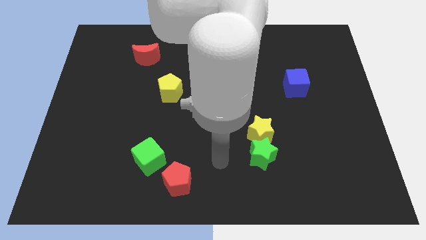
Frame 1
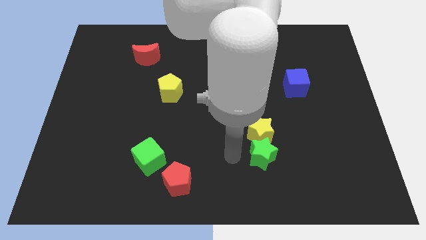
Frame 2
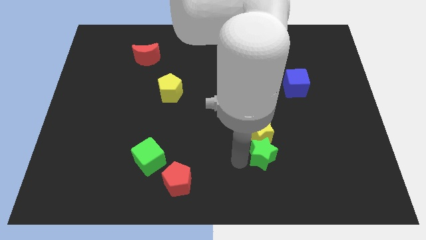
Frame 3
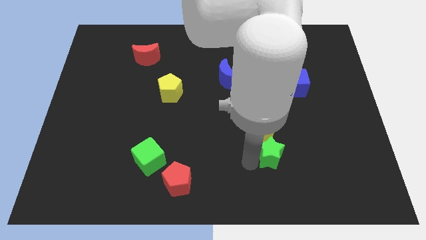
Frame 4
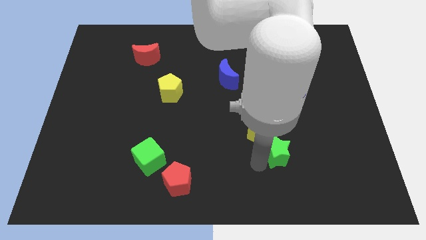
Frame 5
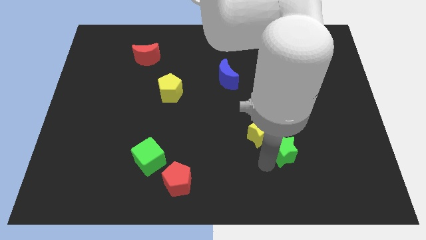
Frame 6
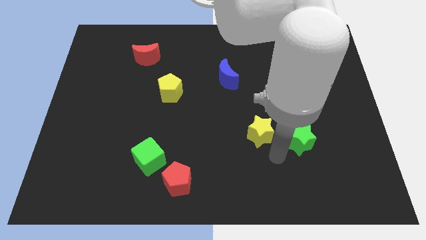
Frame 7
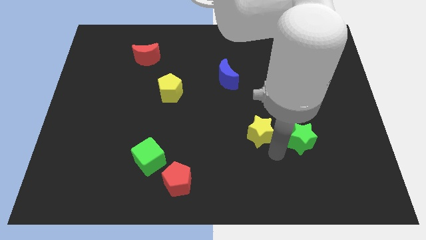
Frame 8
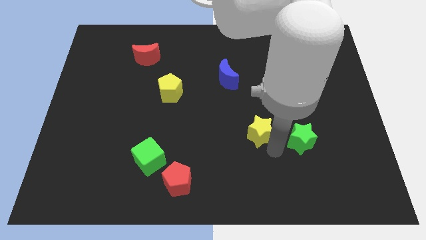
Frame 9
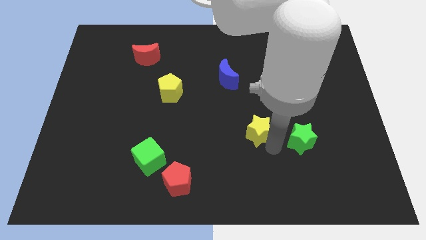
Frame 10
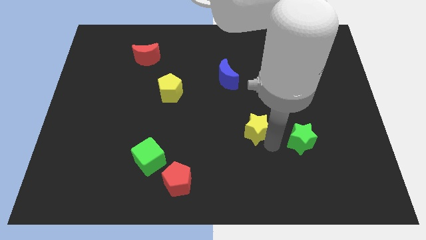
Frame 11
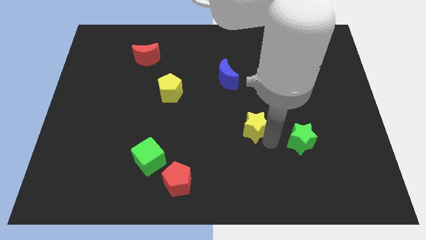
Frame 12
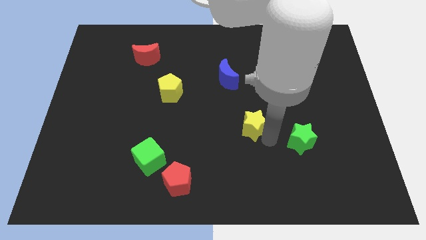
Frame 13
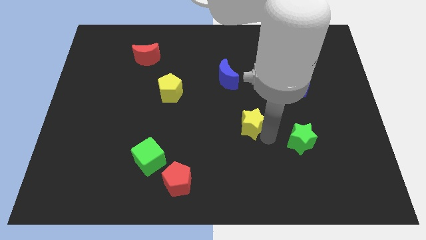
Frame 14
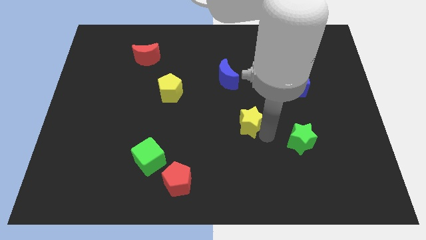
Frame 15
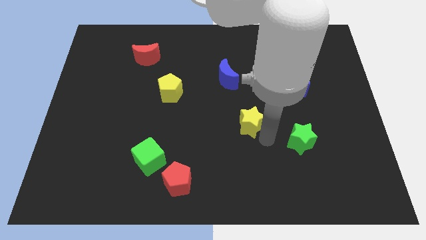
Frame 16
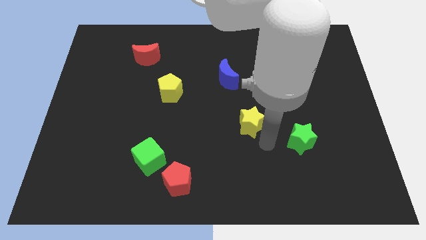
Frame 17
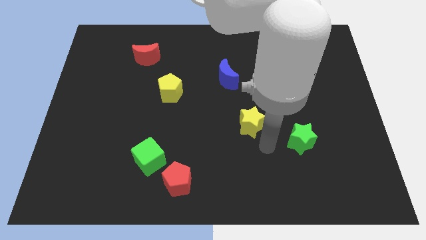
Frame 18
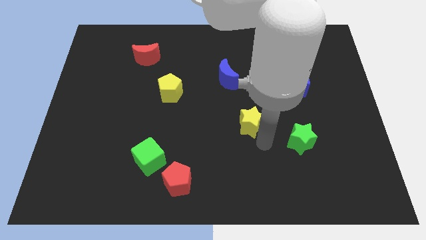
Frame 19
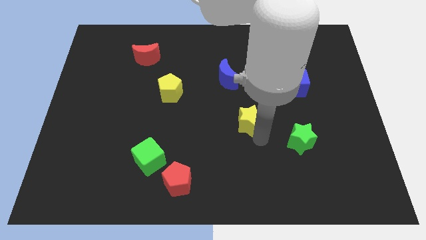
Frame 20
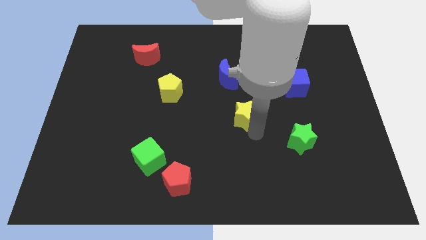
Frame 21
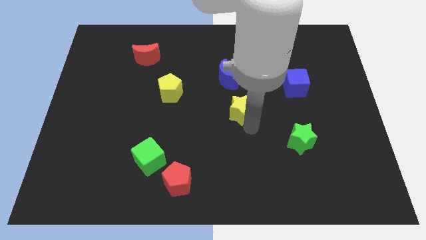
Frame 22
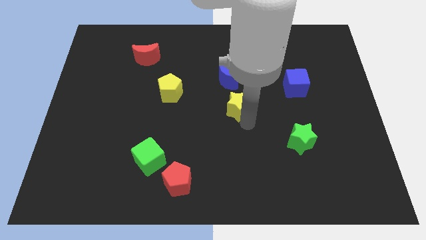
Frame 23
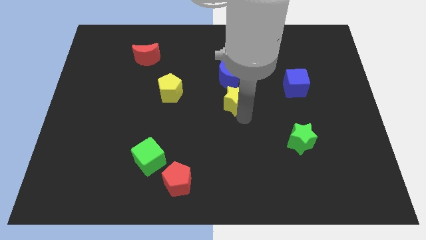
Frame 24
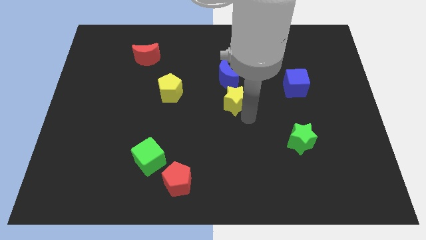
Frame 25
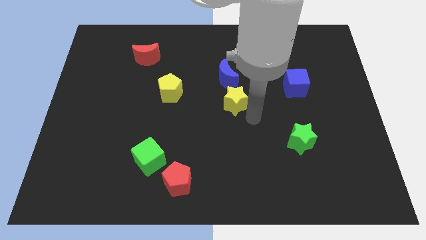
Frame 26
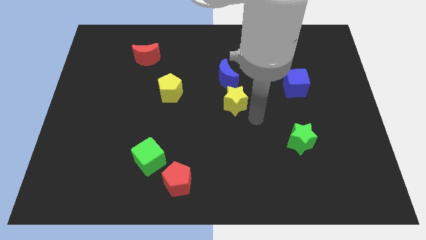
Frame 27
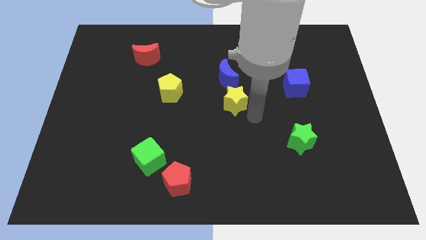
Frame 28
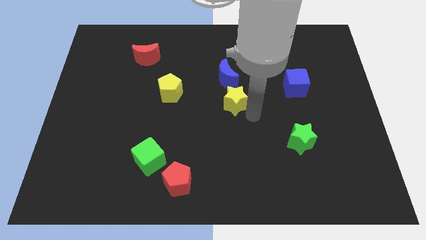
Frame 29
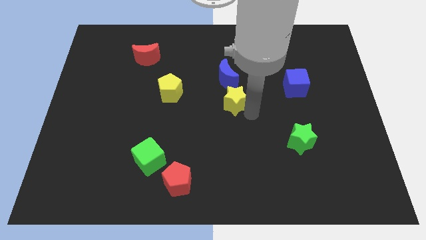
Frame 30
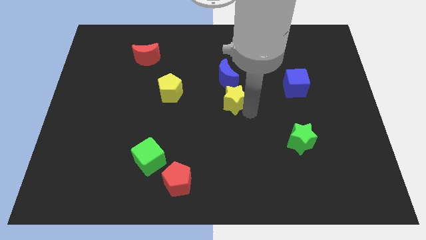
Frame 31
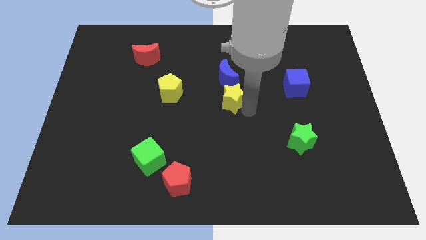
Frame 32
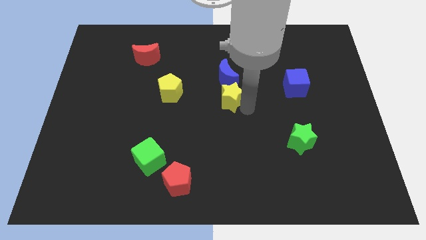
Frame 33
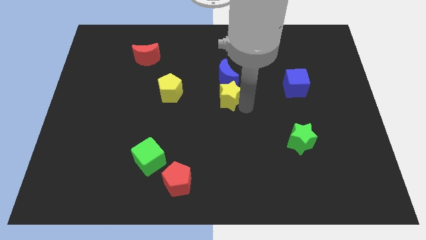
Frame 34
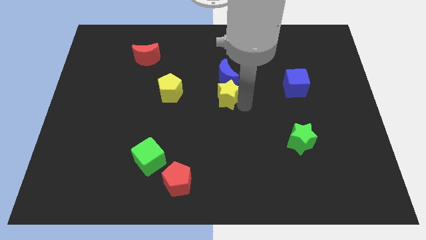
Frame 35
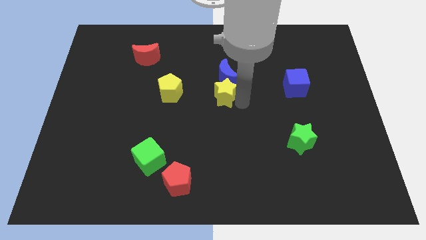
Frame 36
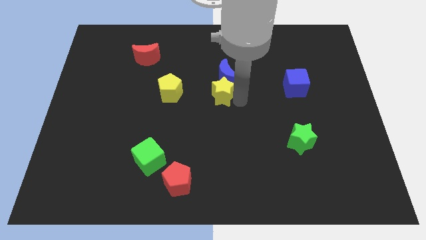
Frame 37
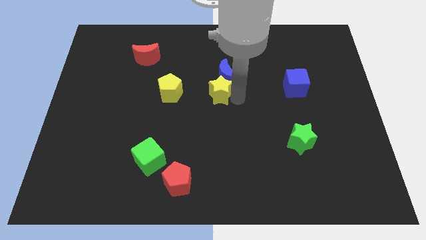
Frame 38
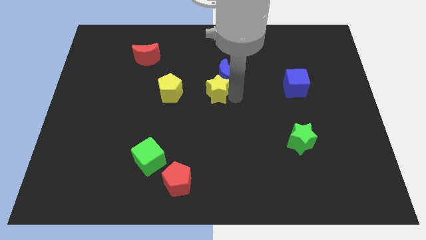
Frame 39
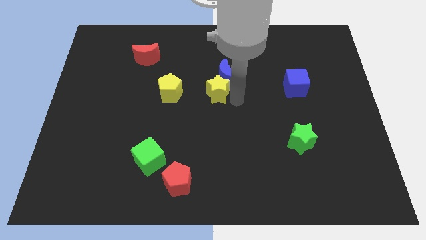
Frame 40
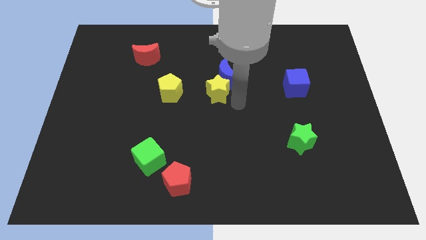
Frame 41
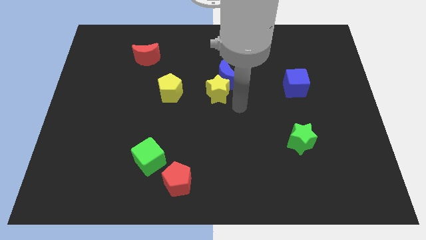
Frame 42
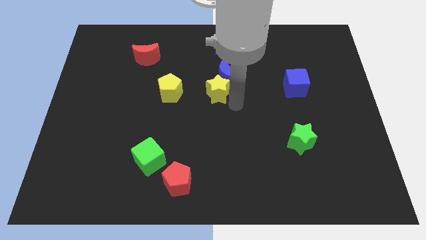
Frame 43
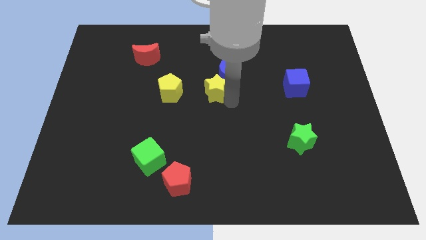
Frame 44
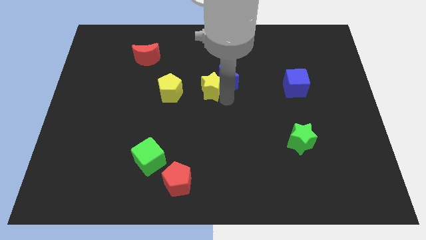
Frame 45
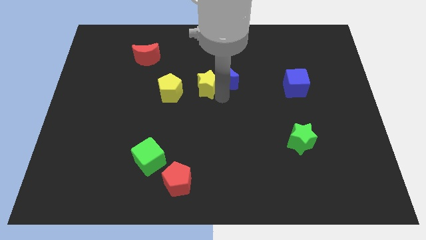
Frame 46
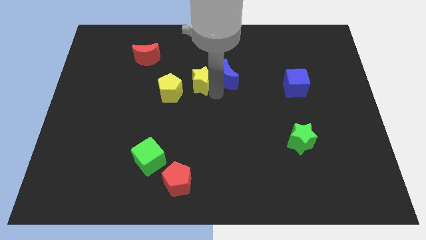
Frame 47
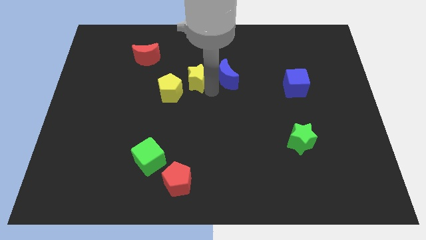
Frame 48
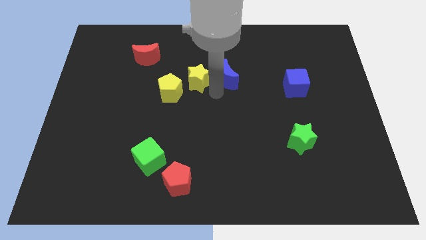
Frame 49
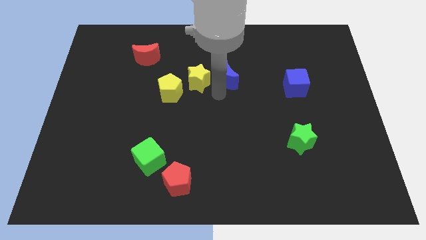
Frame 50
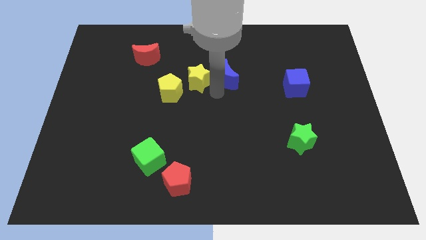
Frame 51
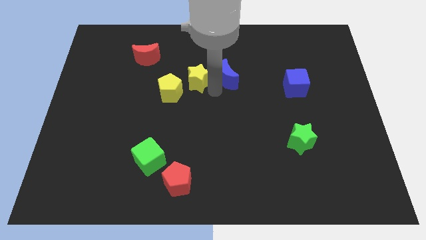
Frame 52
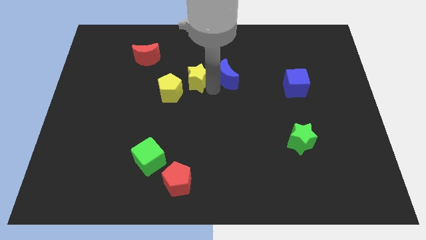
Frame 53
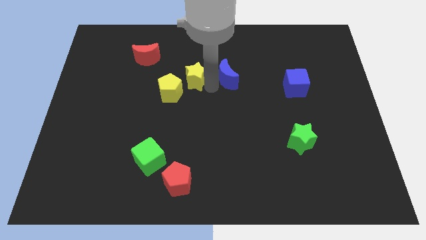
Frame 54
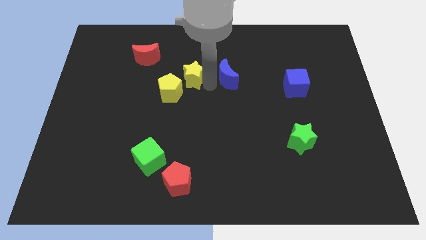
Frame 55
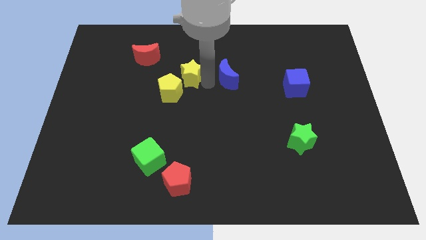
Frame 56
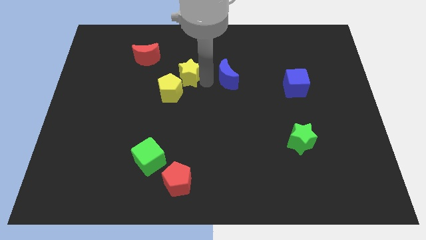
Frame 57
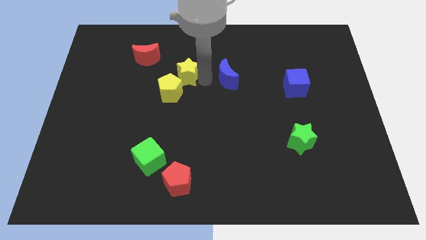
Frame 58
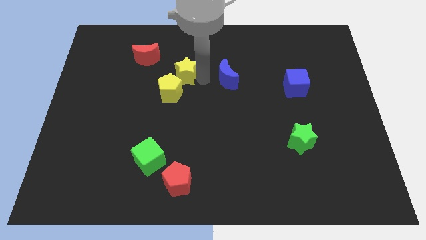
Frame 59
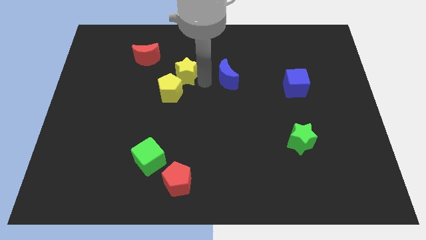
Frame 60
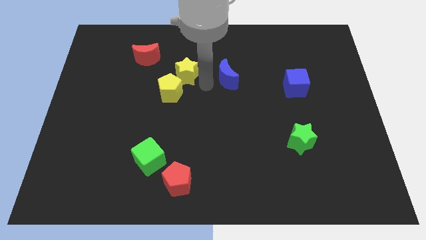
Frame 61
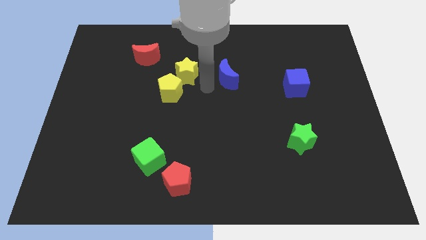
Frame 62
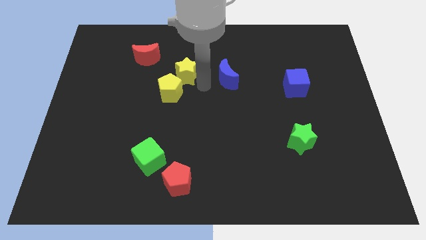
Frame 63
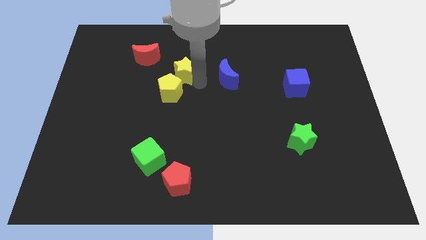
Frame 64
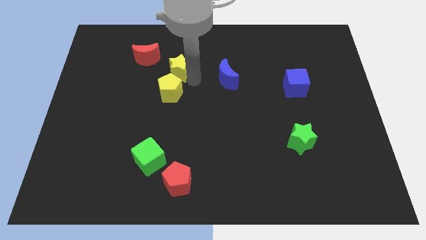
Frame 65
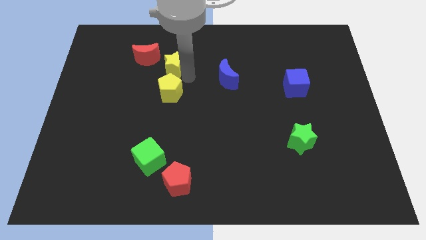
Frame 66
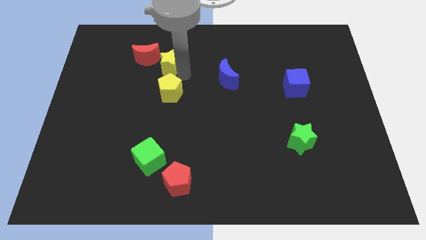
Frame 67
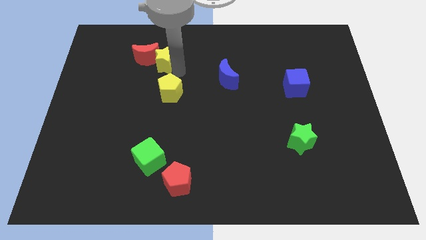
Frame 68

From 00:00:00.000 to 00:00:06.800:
push the yellow star next to the red moon
